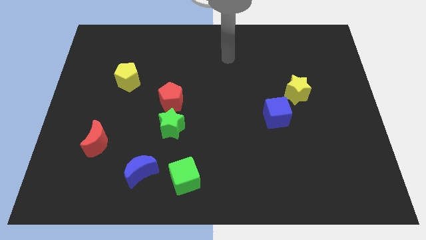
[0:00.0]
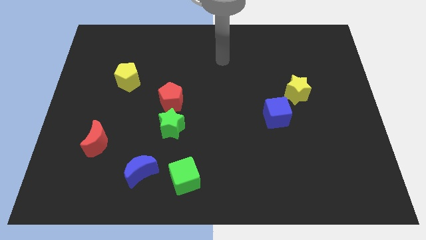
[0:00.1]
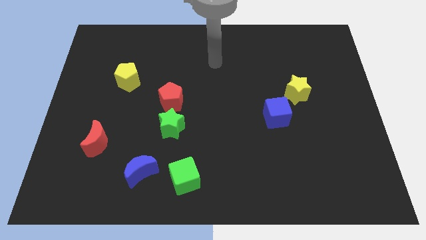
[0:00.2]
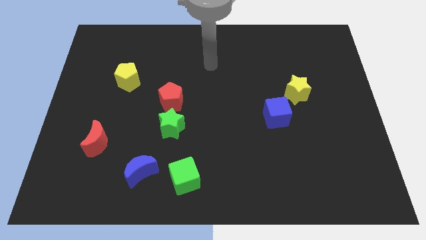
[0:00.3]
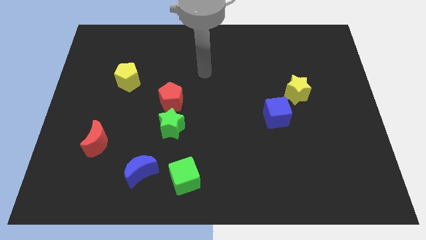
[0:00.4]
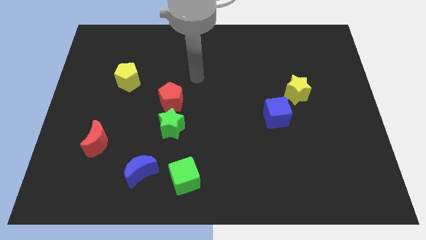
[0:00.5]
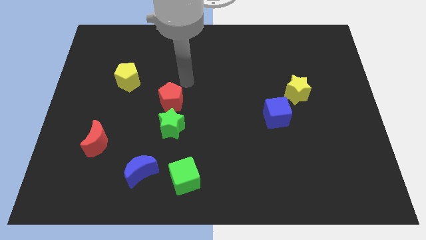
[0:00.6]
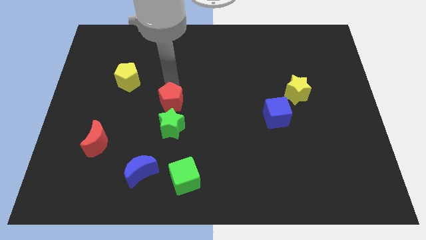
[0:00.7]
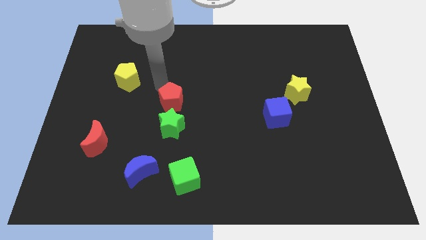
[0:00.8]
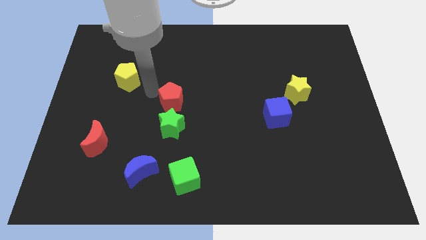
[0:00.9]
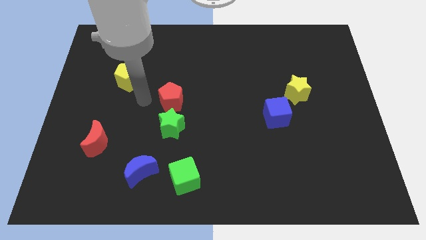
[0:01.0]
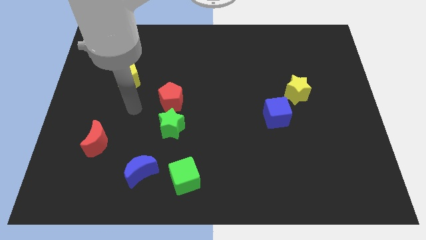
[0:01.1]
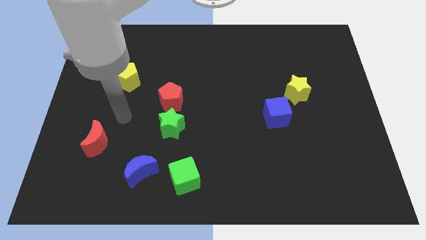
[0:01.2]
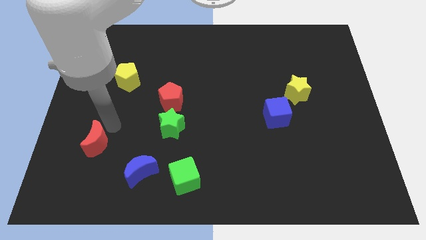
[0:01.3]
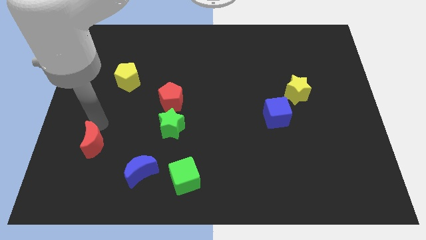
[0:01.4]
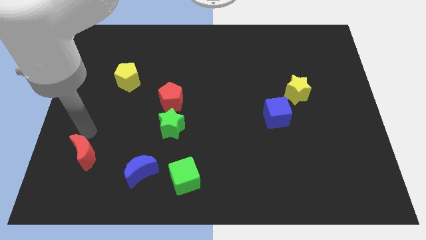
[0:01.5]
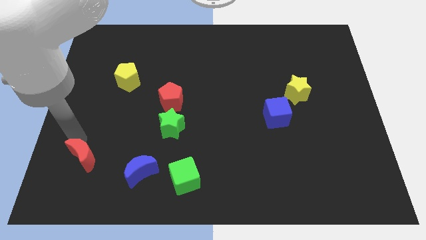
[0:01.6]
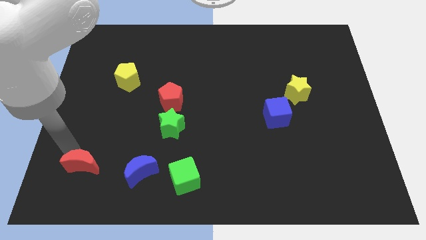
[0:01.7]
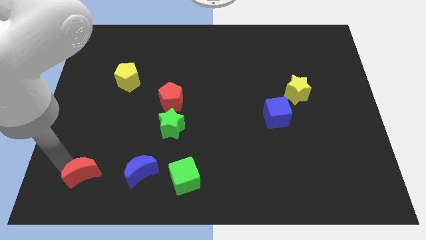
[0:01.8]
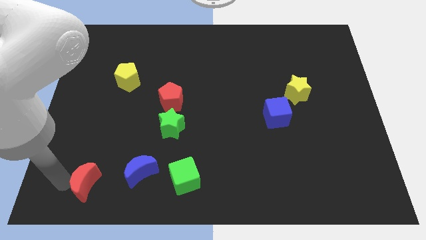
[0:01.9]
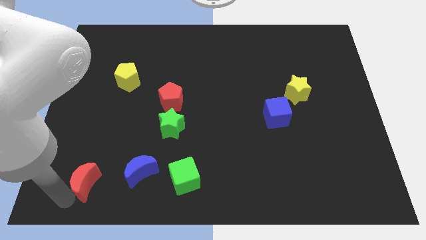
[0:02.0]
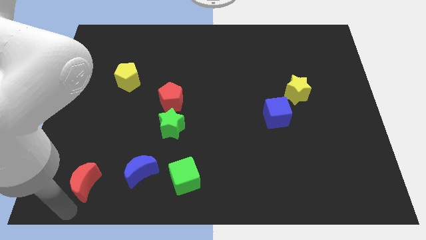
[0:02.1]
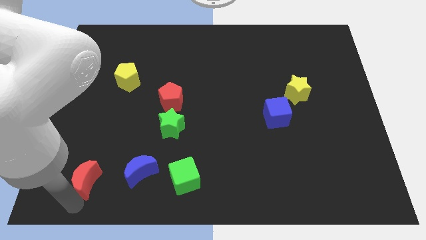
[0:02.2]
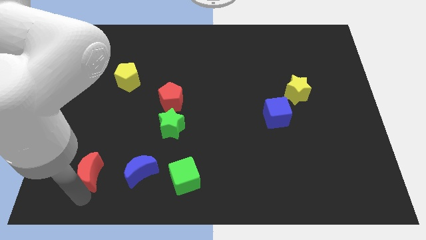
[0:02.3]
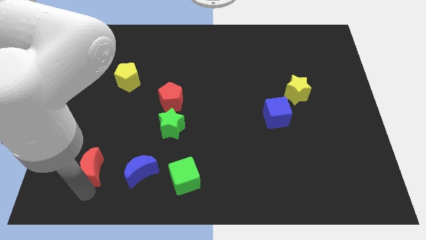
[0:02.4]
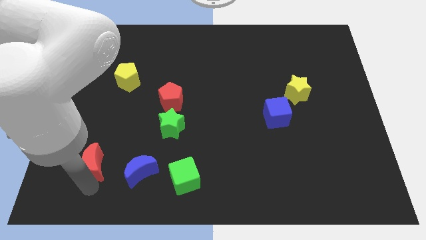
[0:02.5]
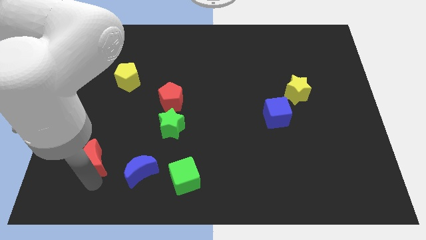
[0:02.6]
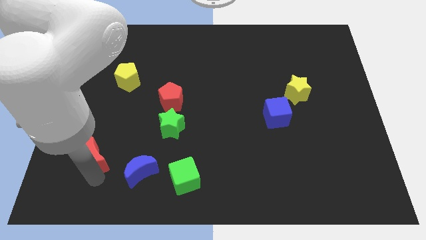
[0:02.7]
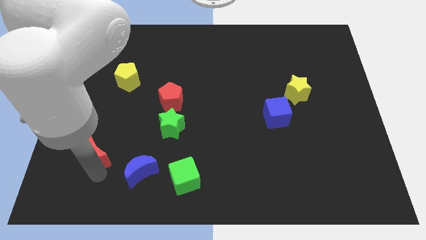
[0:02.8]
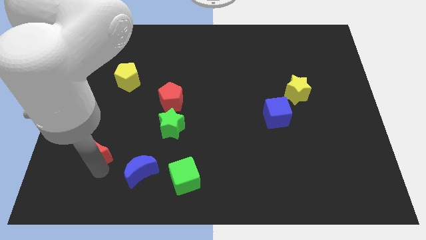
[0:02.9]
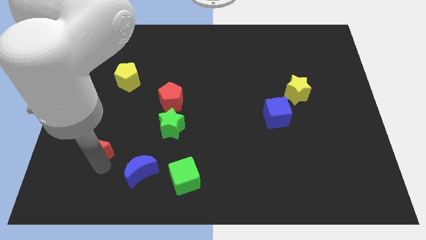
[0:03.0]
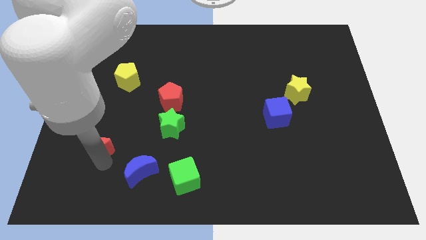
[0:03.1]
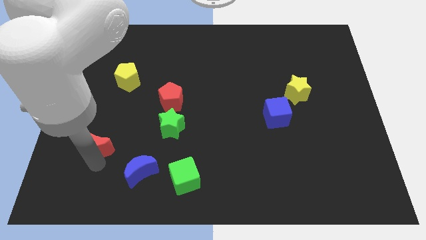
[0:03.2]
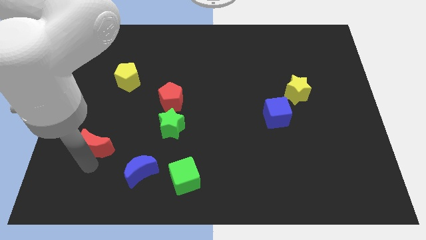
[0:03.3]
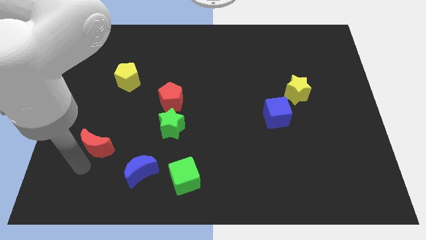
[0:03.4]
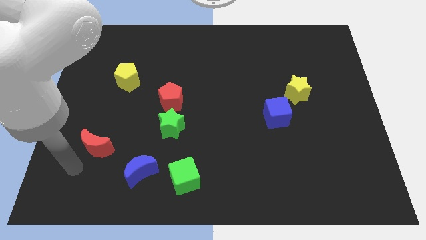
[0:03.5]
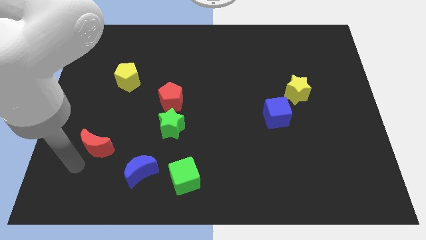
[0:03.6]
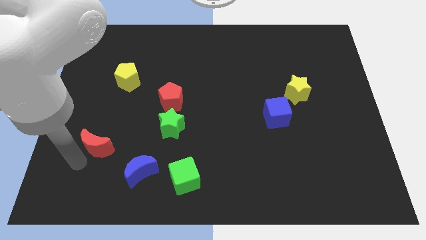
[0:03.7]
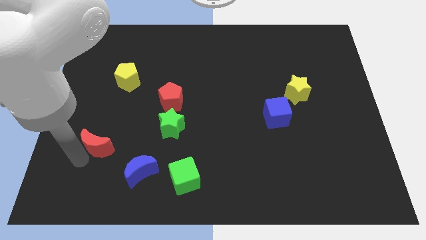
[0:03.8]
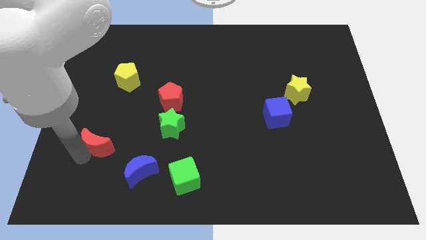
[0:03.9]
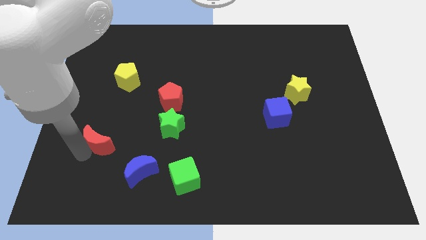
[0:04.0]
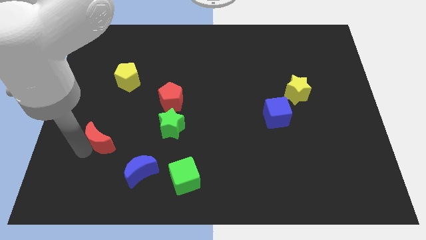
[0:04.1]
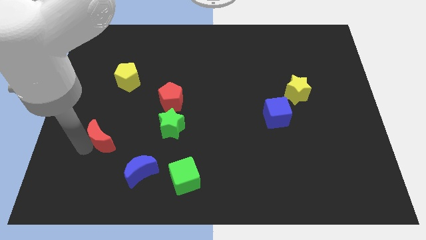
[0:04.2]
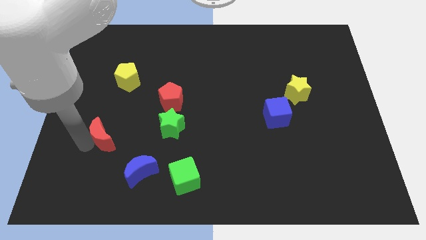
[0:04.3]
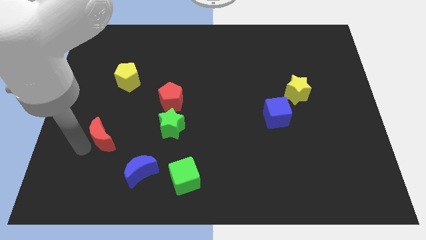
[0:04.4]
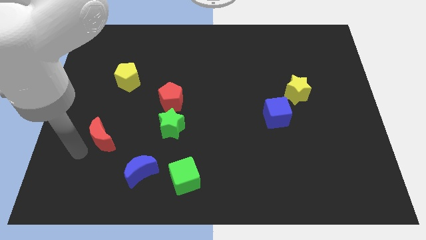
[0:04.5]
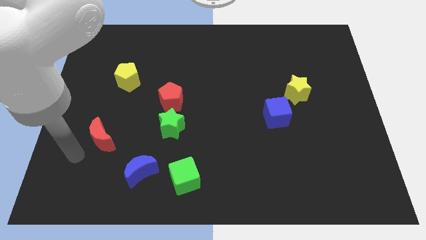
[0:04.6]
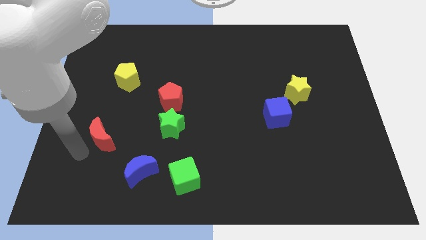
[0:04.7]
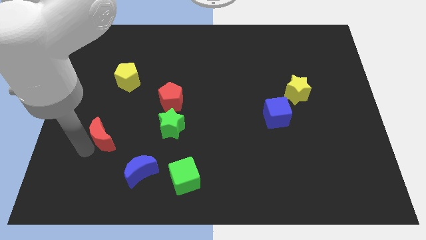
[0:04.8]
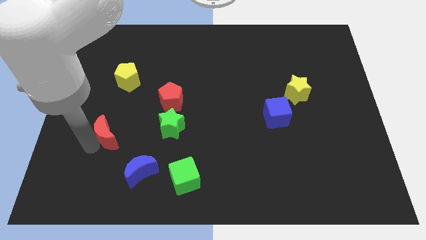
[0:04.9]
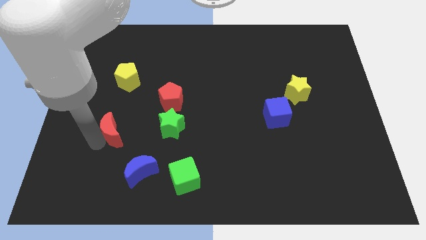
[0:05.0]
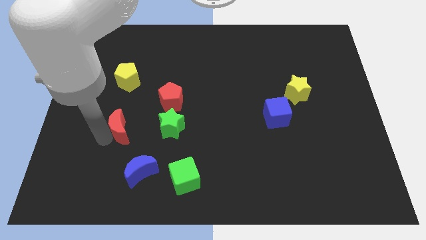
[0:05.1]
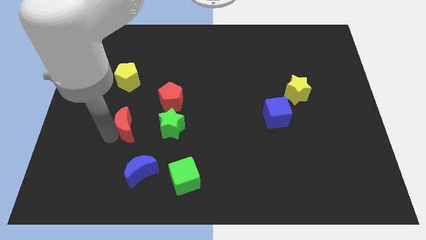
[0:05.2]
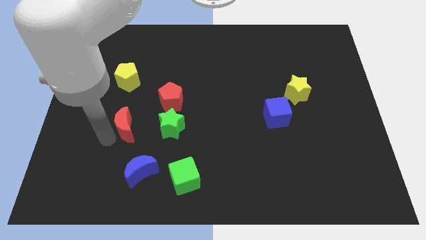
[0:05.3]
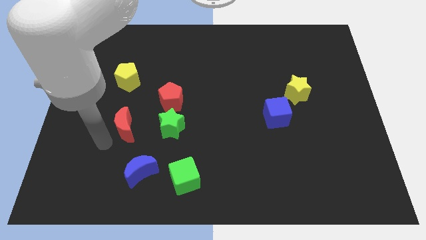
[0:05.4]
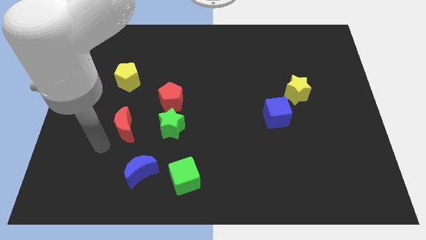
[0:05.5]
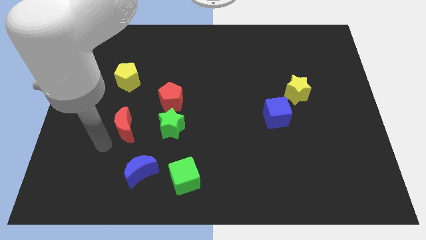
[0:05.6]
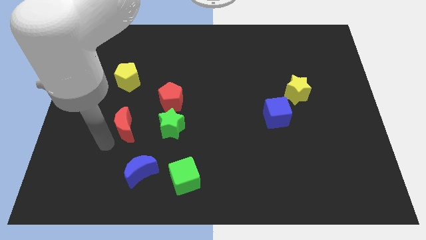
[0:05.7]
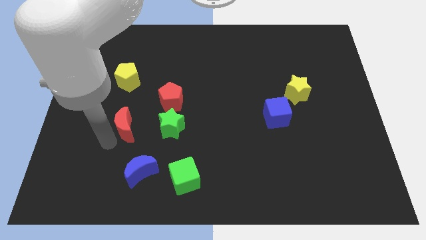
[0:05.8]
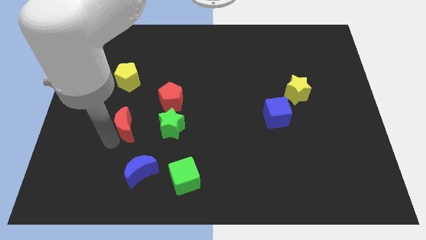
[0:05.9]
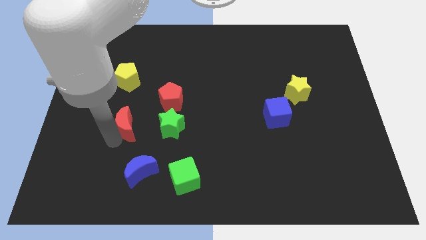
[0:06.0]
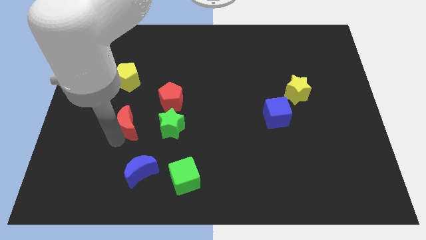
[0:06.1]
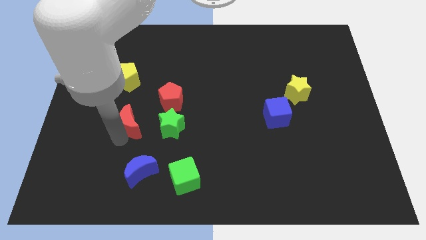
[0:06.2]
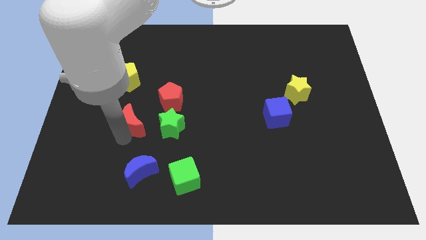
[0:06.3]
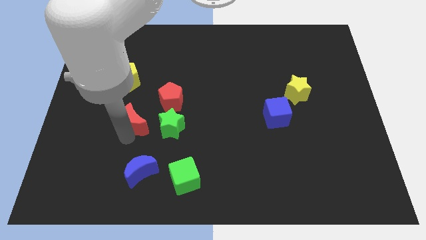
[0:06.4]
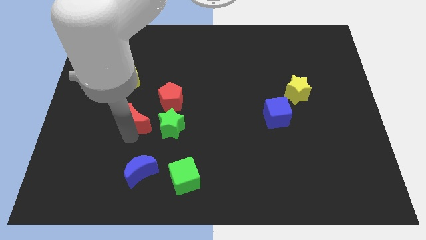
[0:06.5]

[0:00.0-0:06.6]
slide the red moon to the top left side of the green star

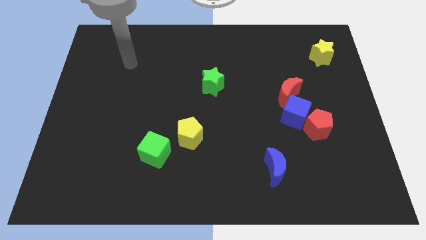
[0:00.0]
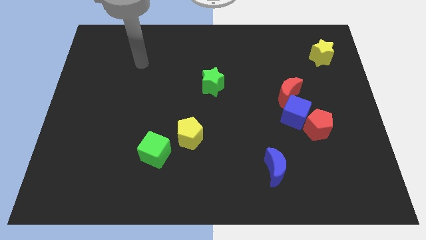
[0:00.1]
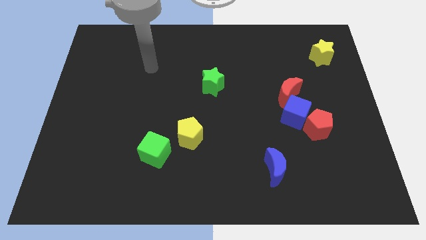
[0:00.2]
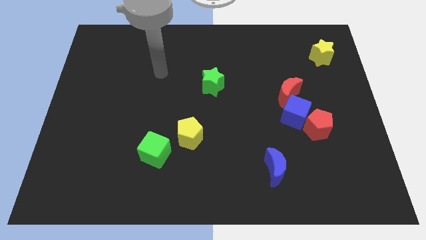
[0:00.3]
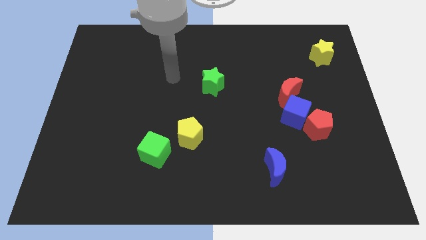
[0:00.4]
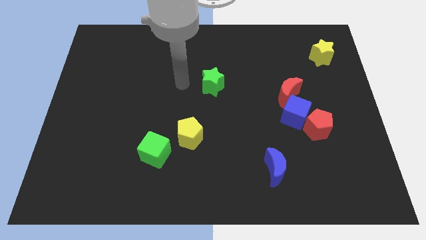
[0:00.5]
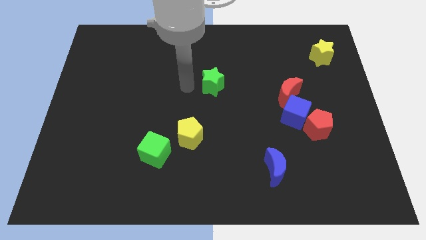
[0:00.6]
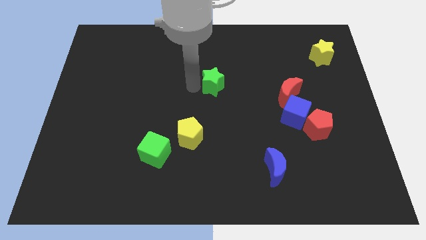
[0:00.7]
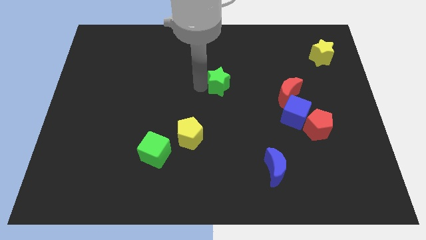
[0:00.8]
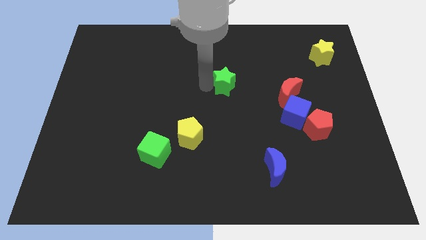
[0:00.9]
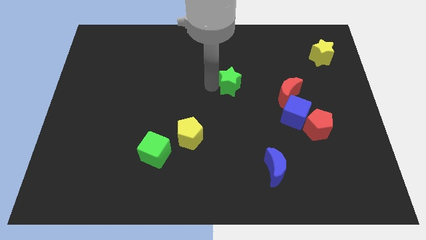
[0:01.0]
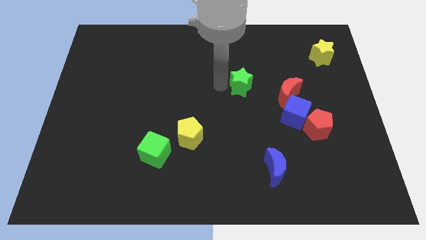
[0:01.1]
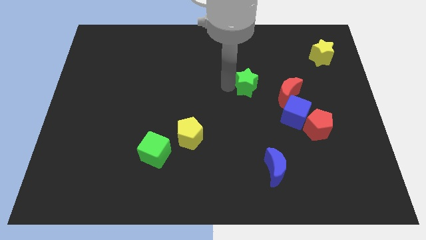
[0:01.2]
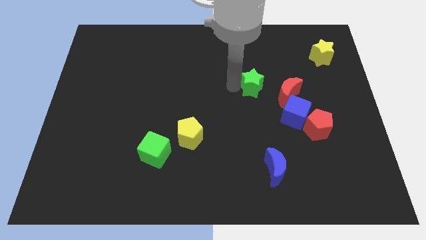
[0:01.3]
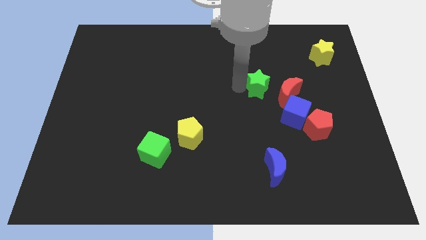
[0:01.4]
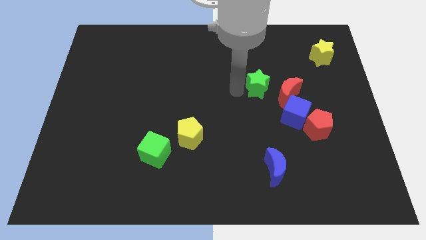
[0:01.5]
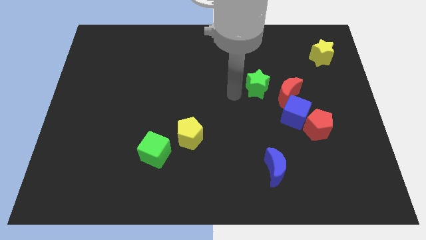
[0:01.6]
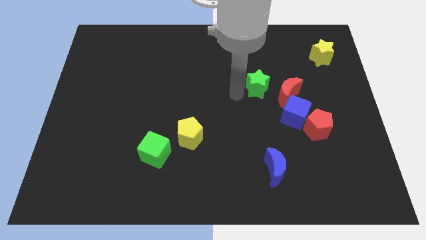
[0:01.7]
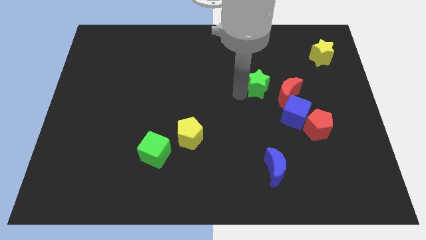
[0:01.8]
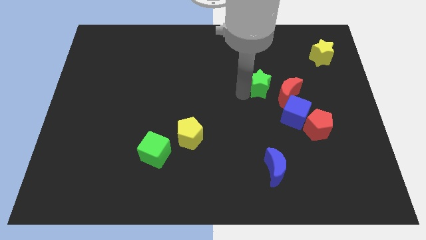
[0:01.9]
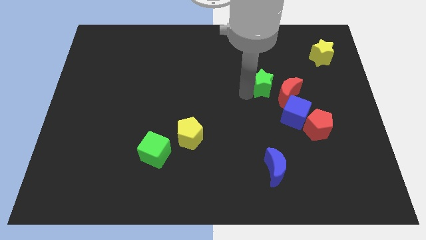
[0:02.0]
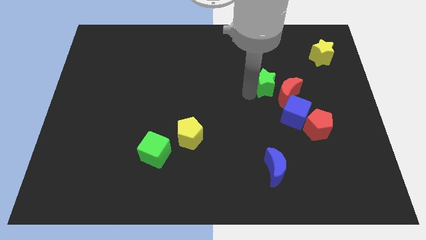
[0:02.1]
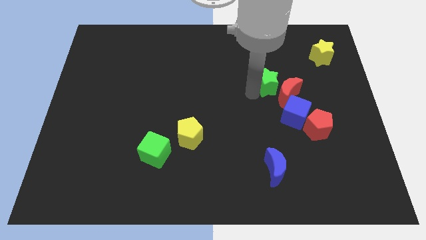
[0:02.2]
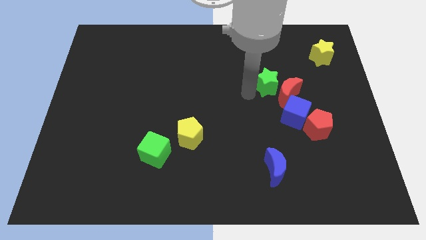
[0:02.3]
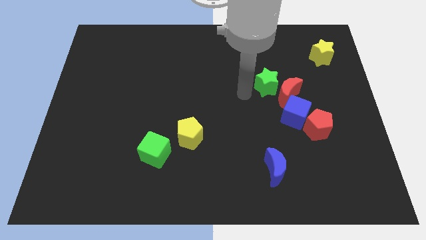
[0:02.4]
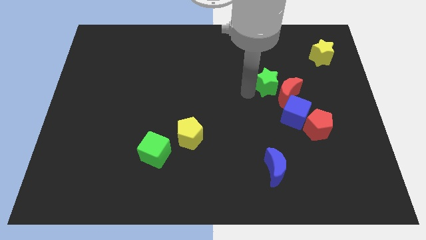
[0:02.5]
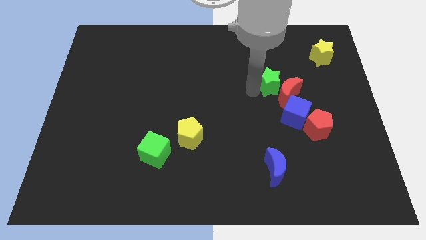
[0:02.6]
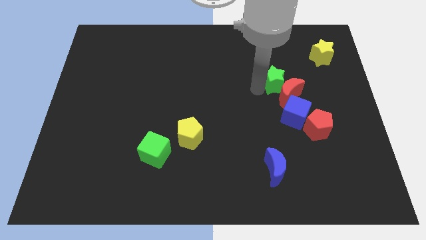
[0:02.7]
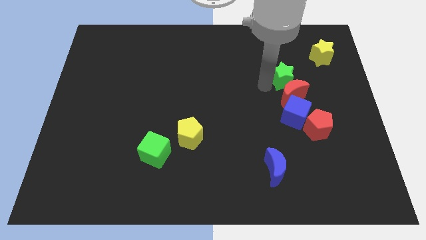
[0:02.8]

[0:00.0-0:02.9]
put the green star to the top right of the red moon
